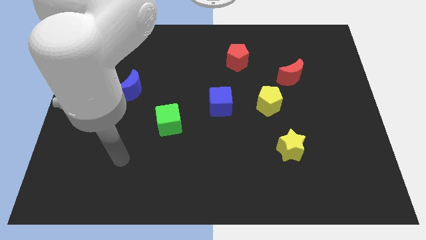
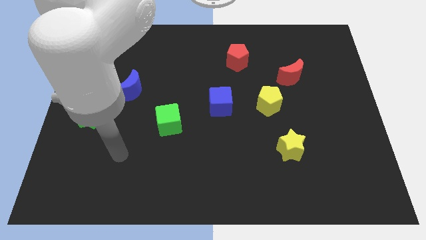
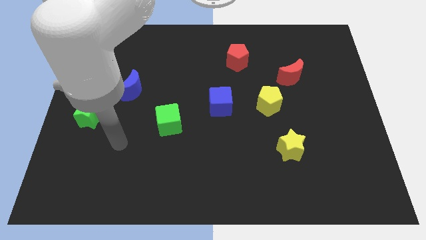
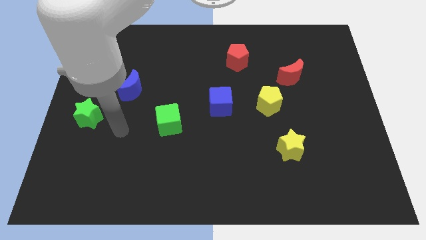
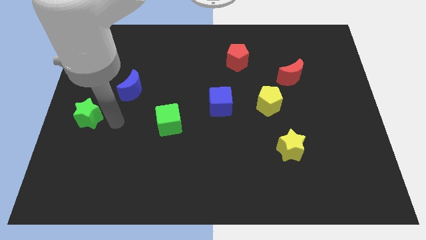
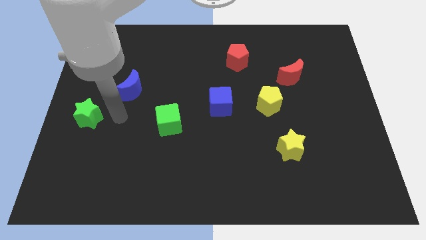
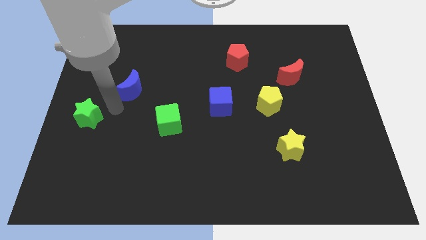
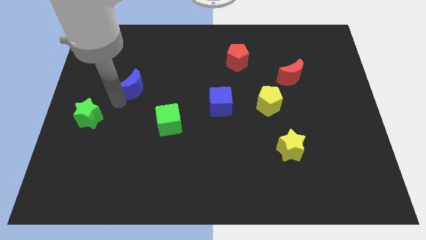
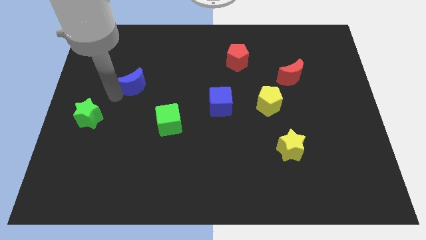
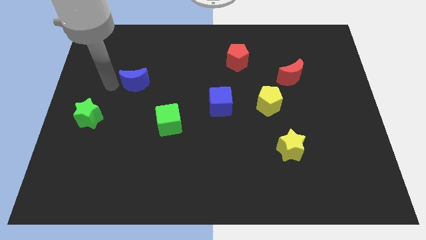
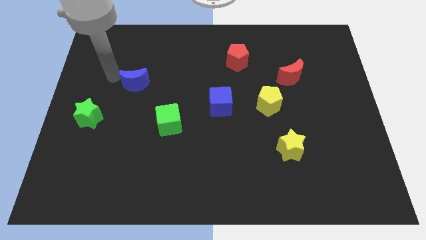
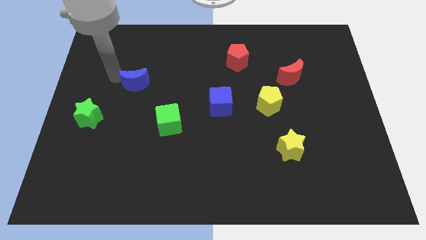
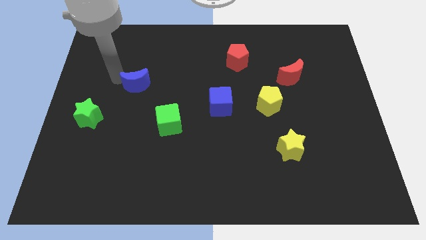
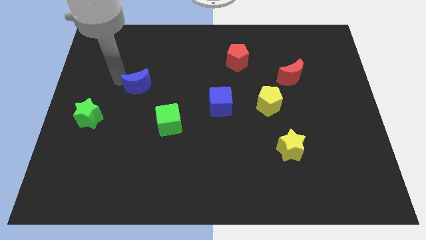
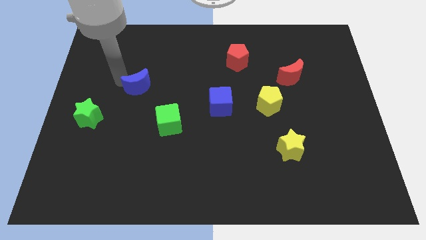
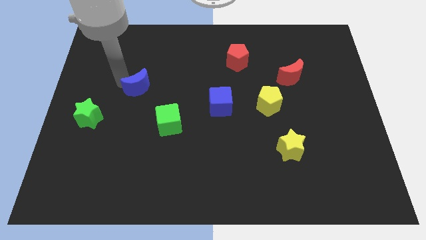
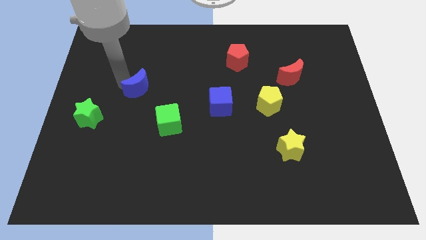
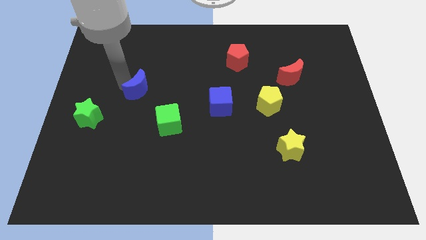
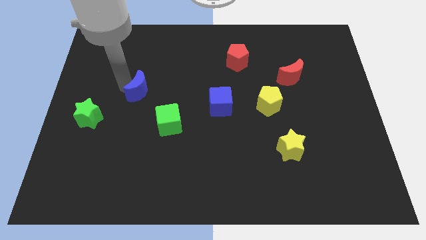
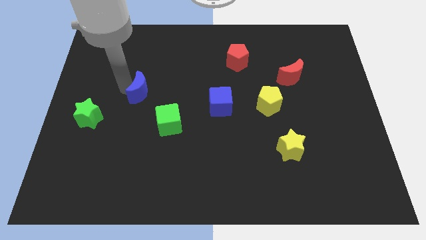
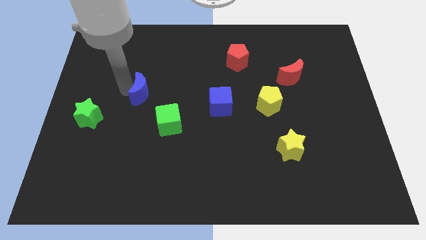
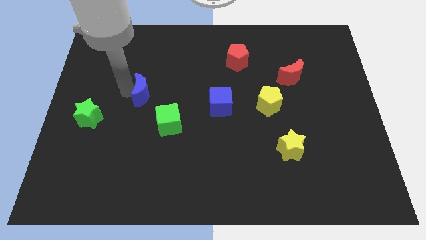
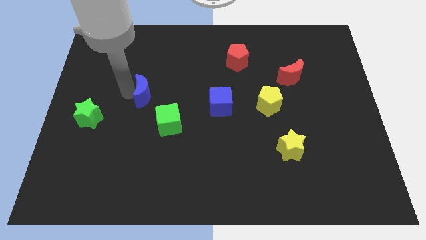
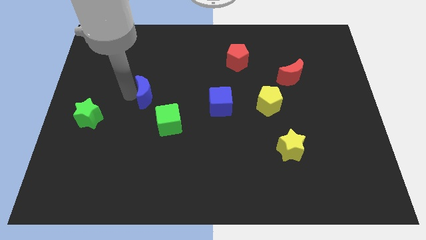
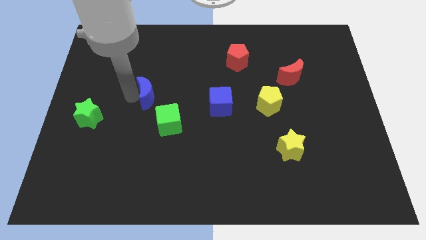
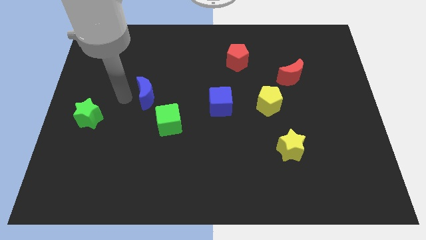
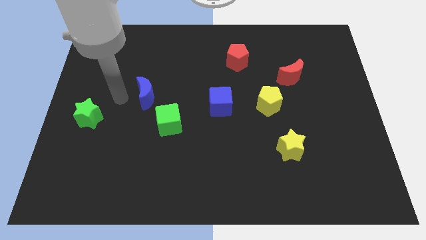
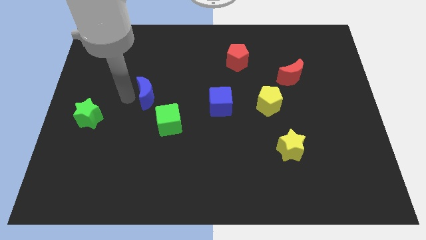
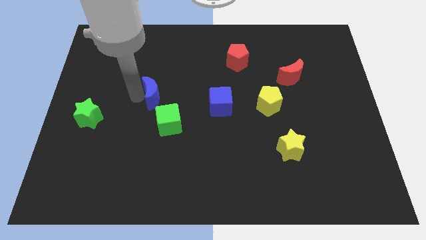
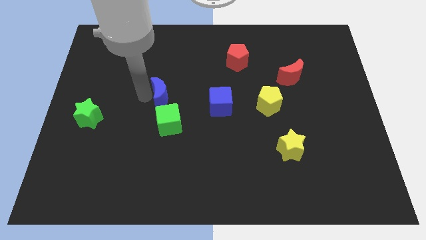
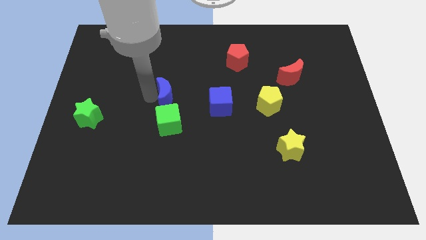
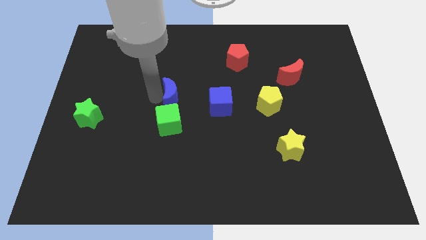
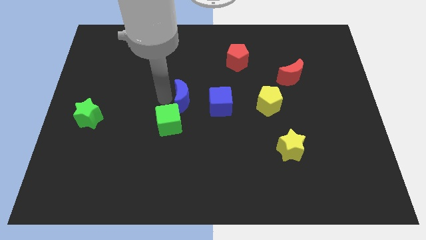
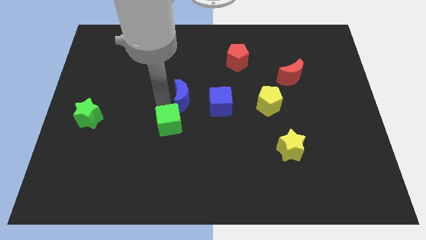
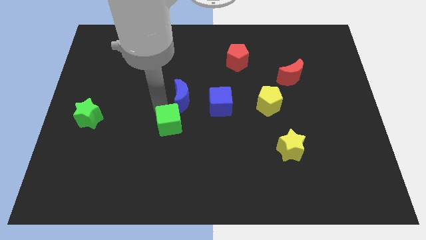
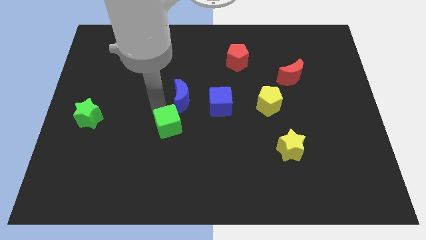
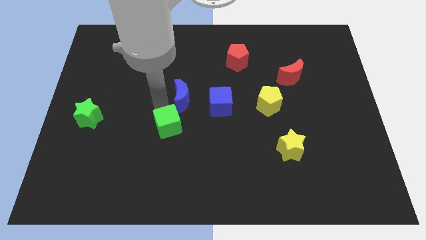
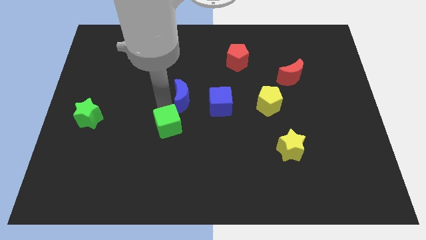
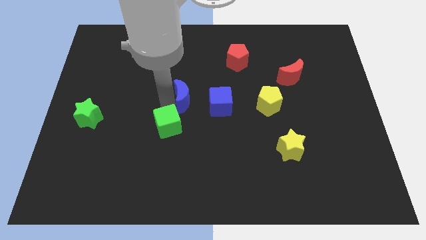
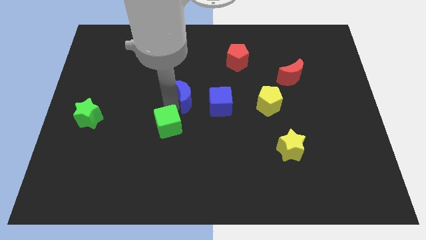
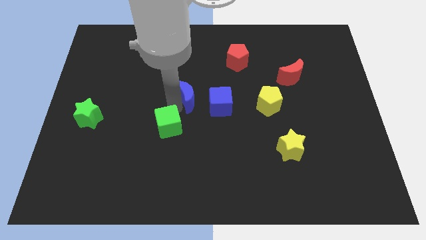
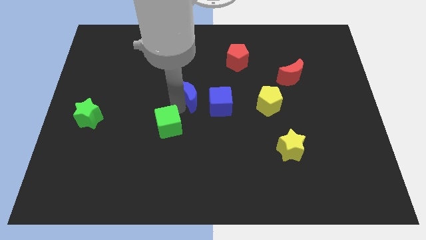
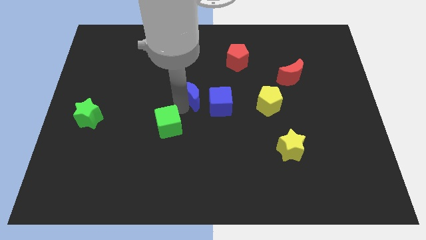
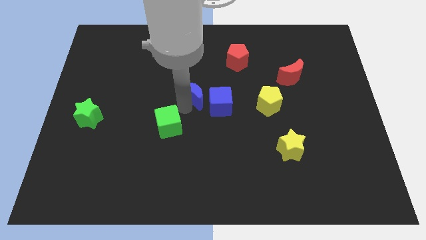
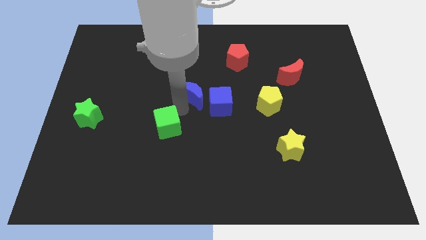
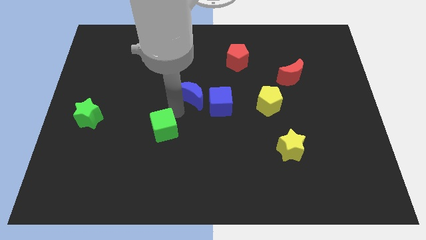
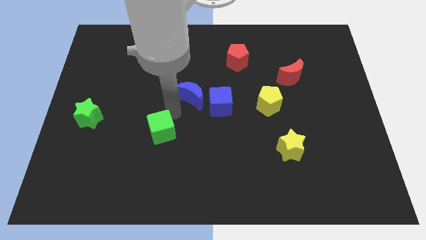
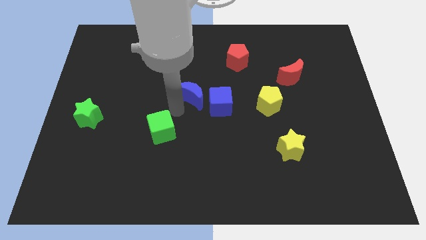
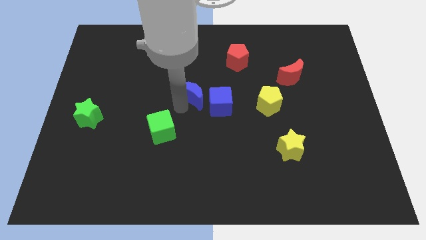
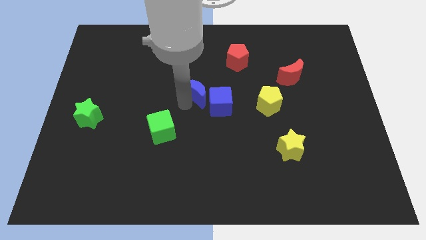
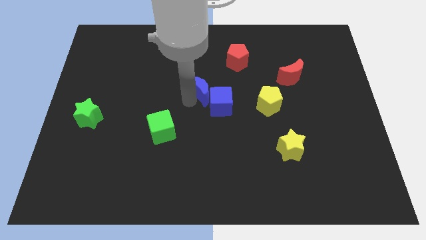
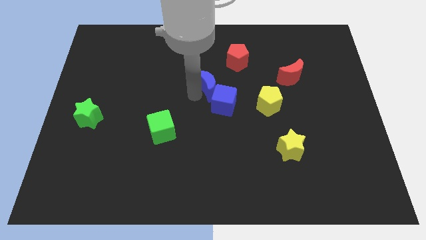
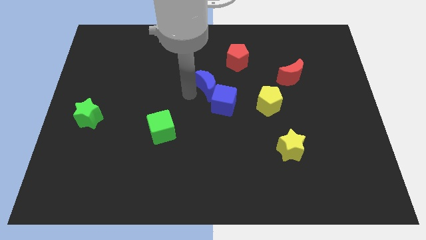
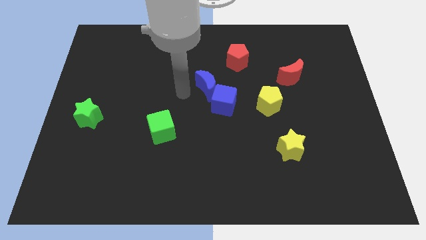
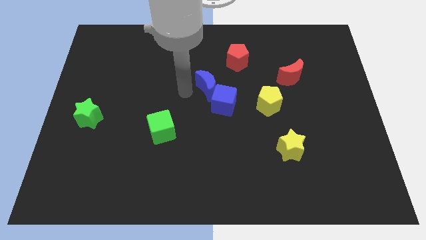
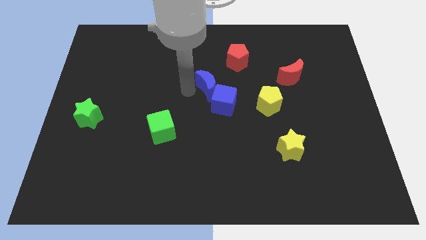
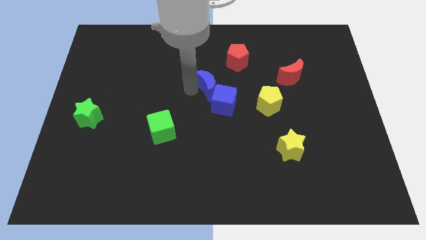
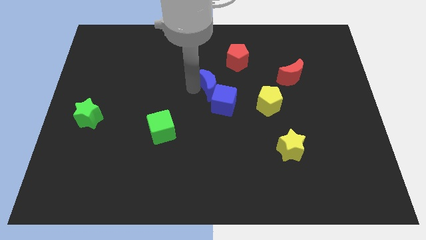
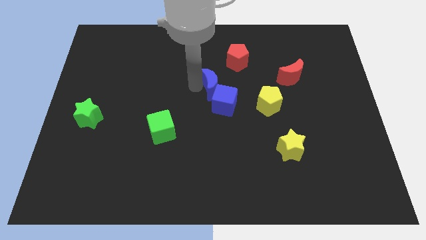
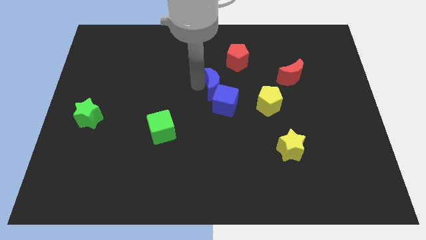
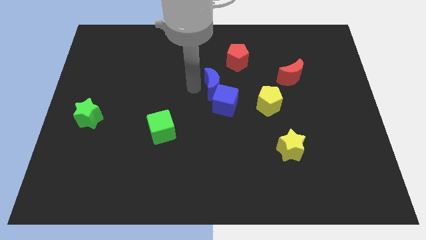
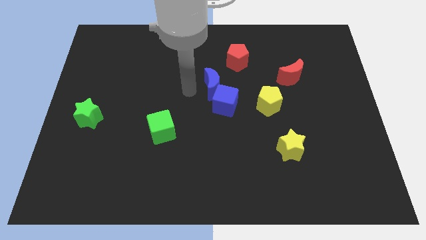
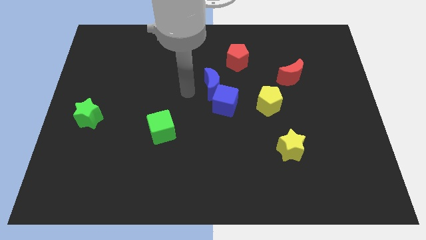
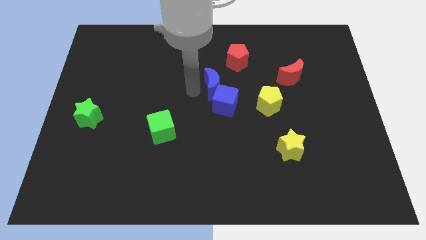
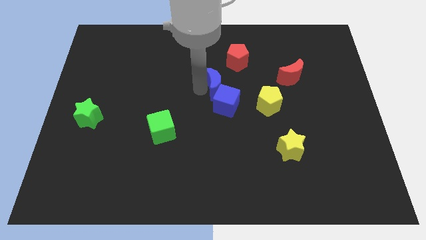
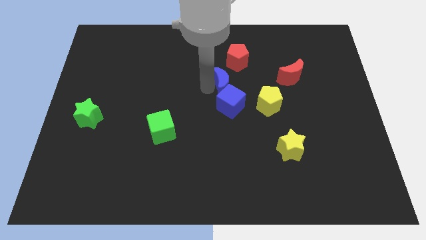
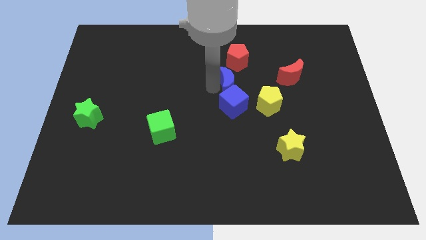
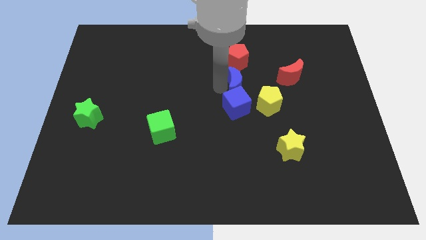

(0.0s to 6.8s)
move the blue moon to the left of the red moon
